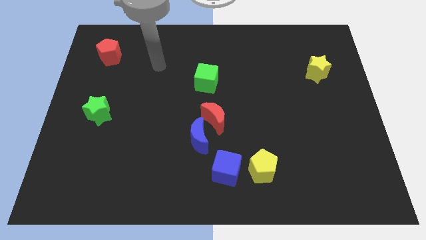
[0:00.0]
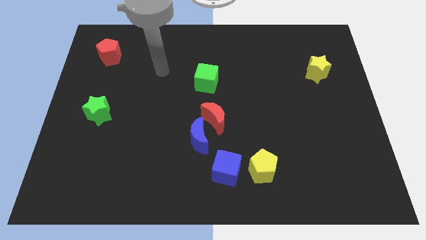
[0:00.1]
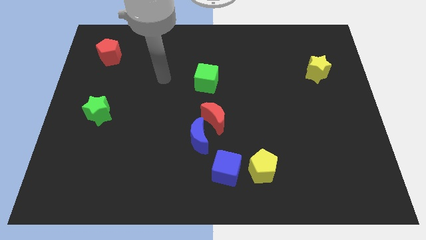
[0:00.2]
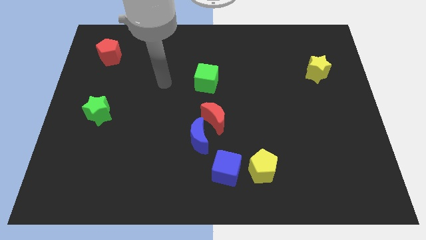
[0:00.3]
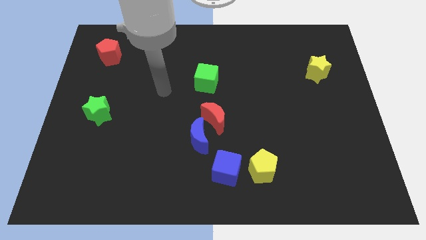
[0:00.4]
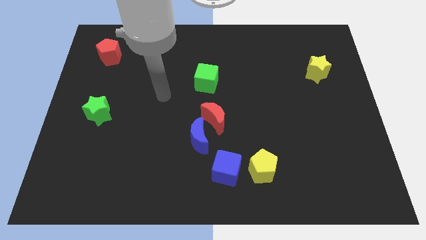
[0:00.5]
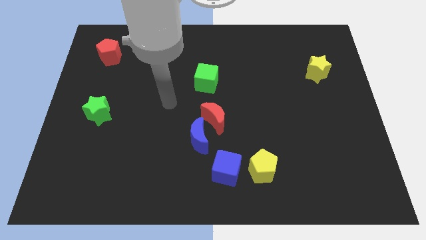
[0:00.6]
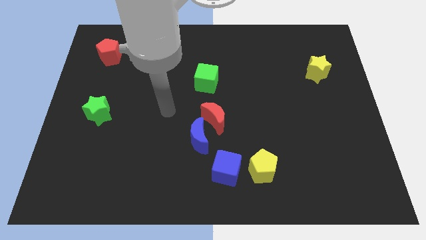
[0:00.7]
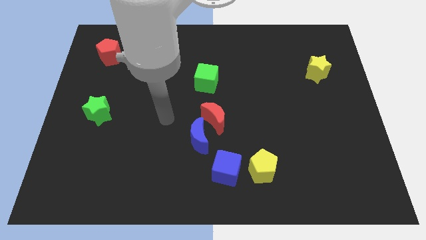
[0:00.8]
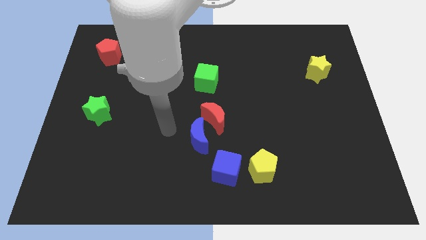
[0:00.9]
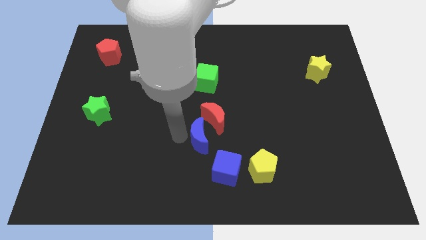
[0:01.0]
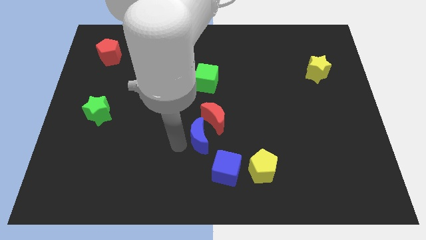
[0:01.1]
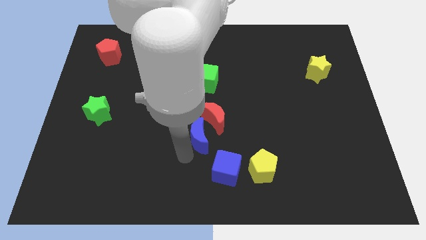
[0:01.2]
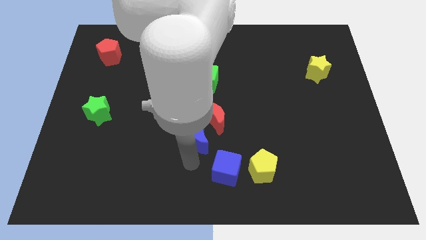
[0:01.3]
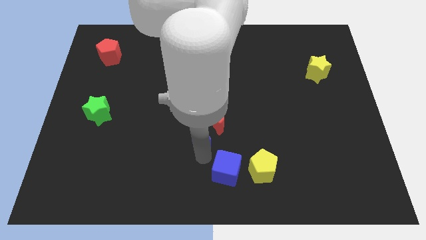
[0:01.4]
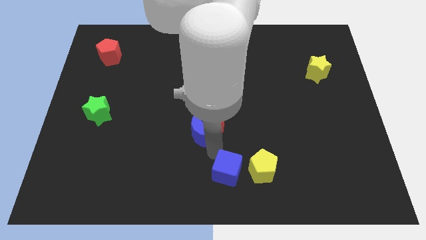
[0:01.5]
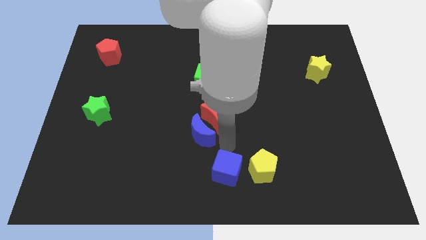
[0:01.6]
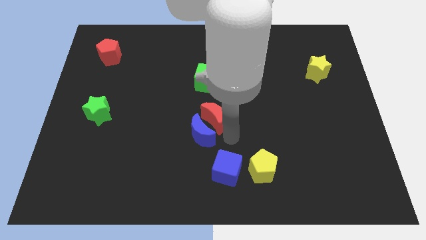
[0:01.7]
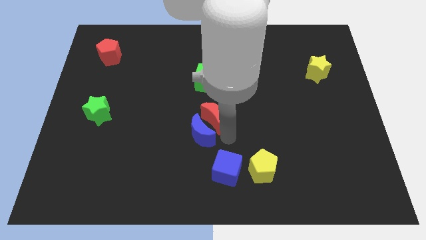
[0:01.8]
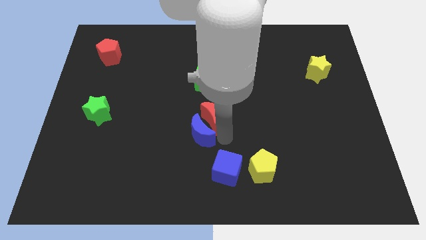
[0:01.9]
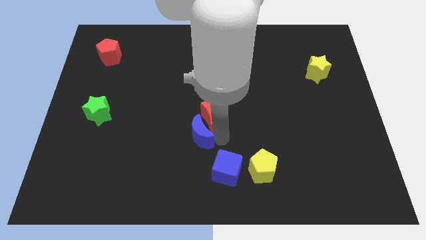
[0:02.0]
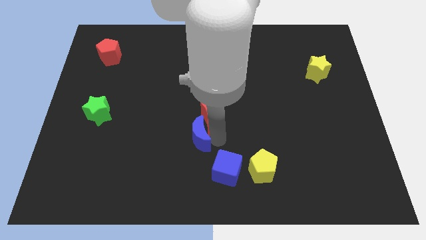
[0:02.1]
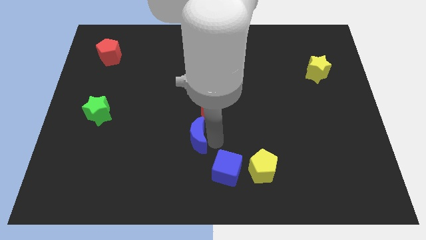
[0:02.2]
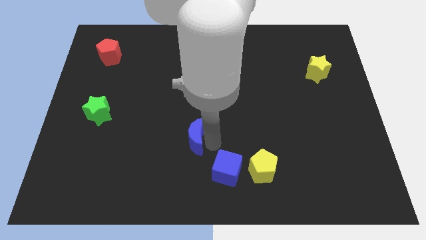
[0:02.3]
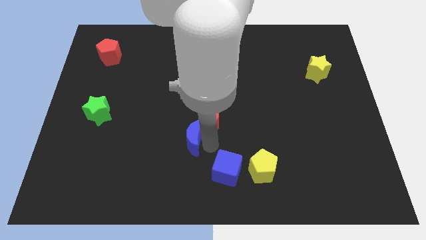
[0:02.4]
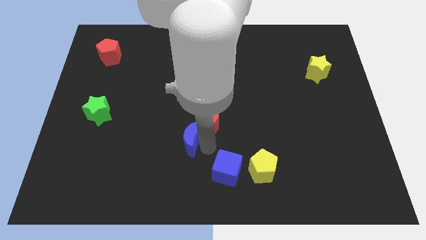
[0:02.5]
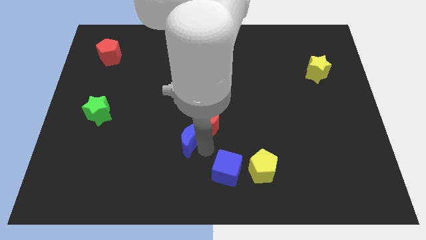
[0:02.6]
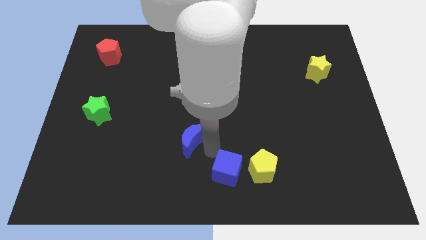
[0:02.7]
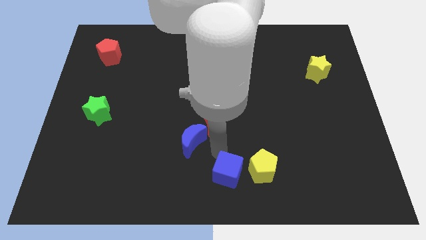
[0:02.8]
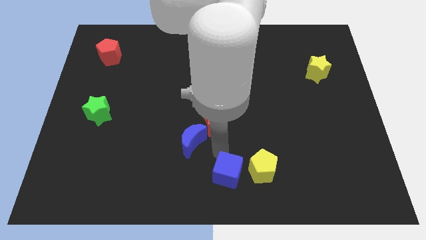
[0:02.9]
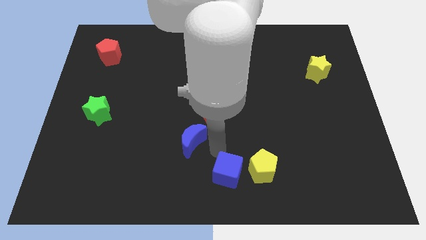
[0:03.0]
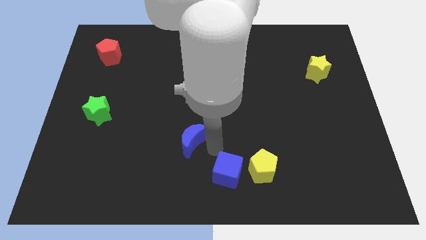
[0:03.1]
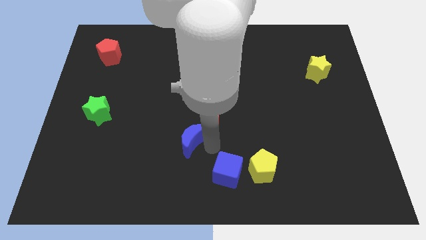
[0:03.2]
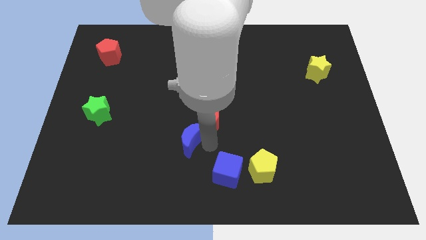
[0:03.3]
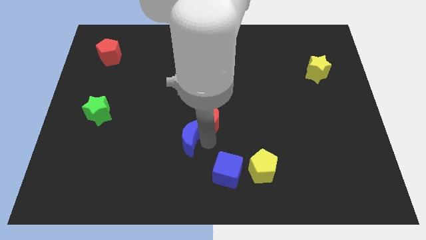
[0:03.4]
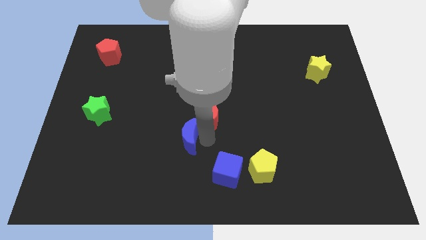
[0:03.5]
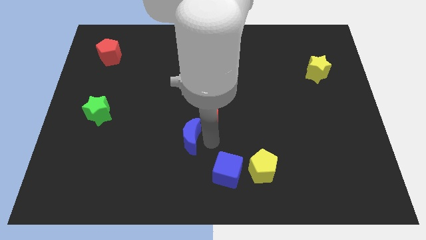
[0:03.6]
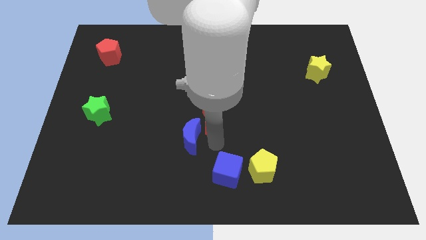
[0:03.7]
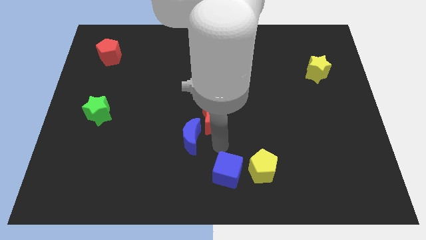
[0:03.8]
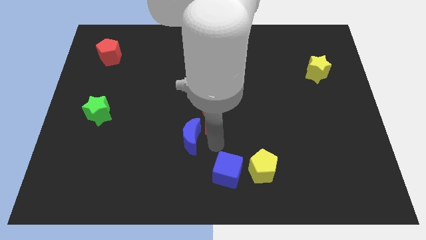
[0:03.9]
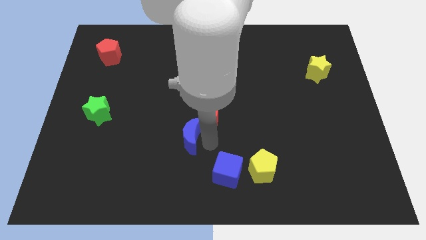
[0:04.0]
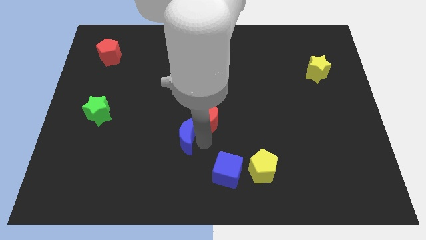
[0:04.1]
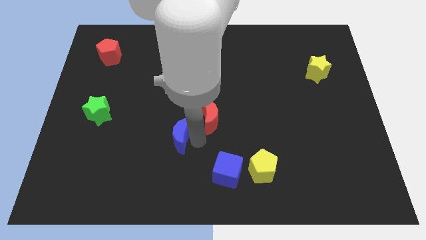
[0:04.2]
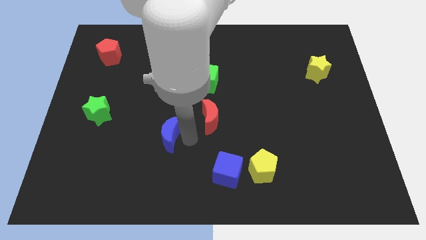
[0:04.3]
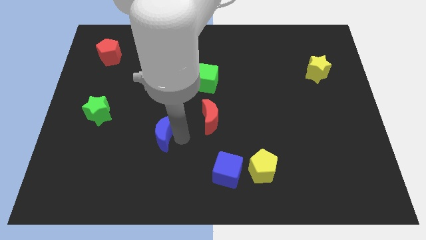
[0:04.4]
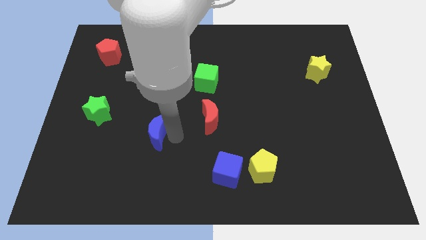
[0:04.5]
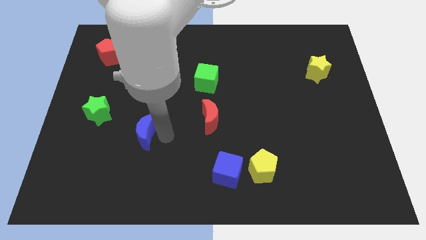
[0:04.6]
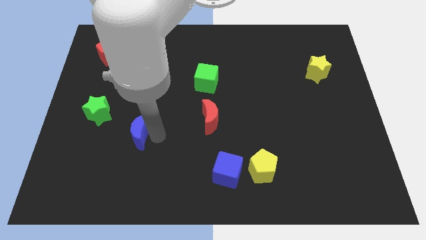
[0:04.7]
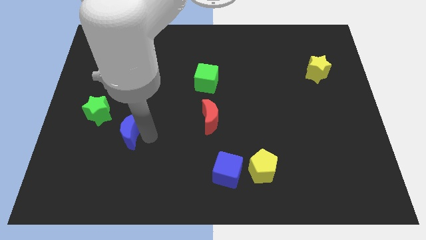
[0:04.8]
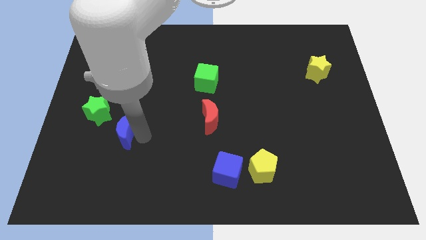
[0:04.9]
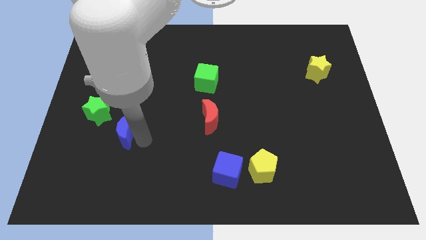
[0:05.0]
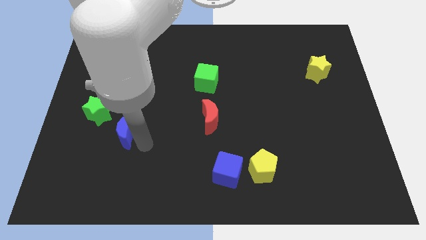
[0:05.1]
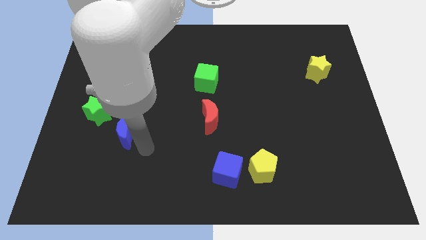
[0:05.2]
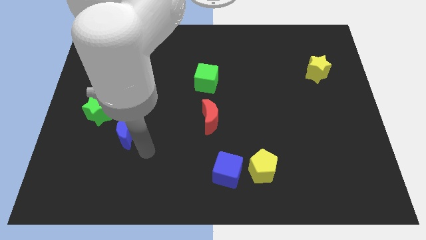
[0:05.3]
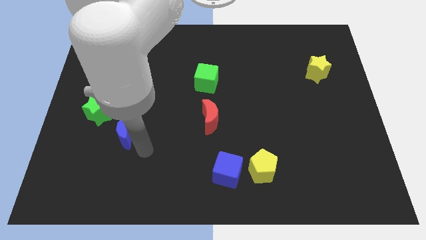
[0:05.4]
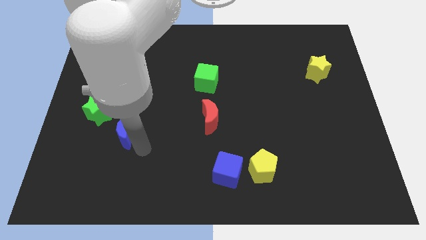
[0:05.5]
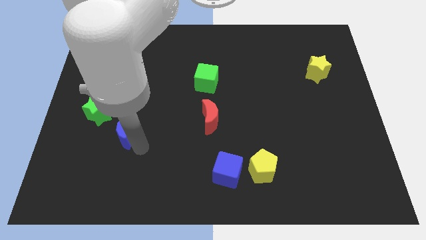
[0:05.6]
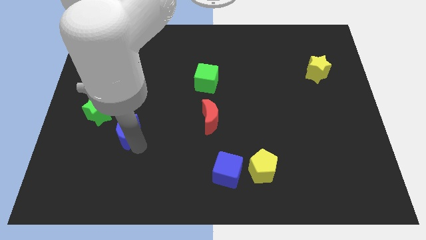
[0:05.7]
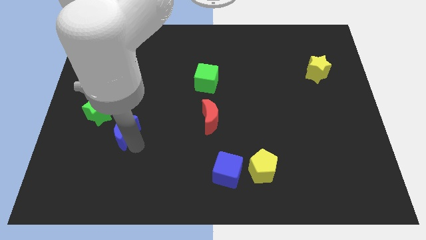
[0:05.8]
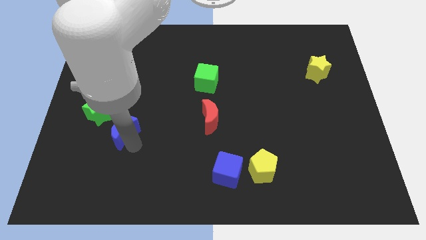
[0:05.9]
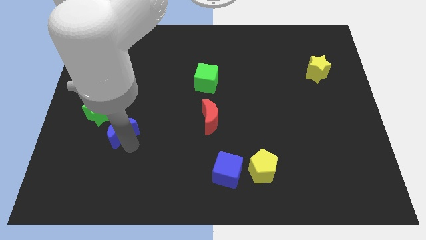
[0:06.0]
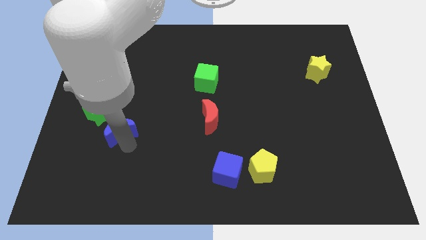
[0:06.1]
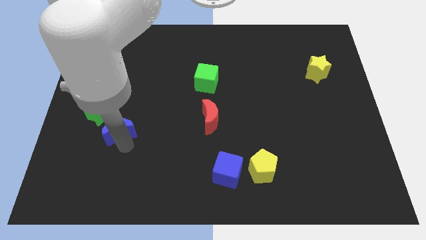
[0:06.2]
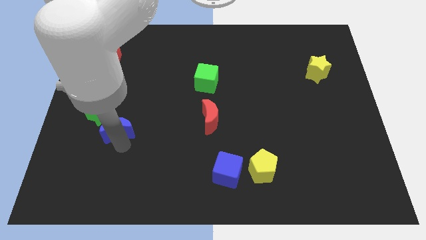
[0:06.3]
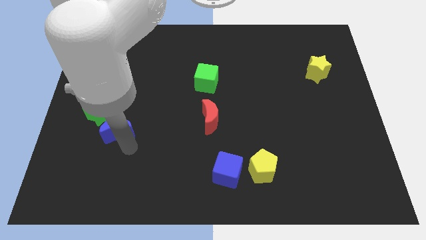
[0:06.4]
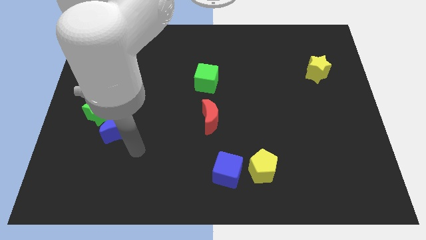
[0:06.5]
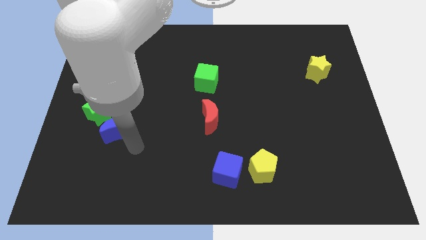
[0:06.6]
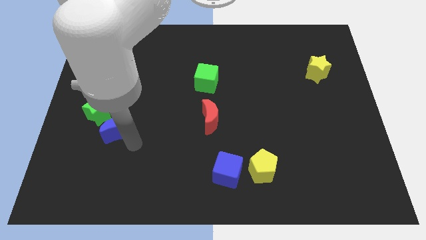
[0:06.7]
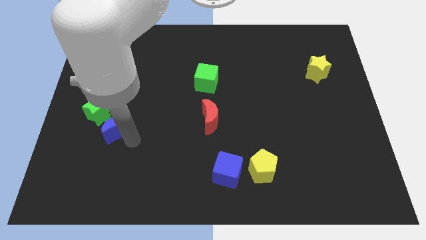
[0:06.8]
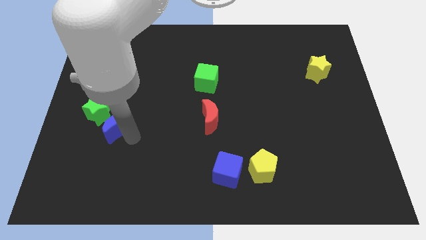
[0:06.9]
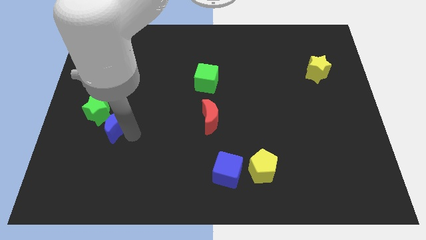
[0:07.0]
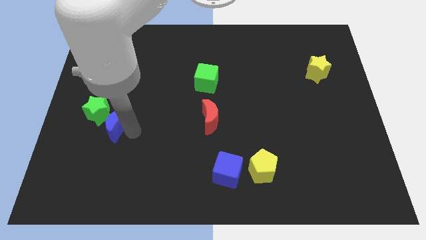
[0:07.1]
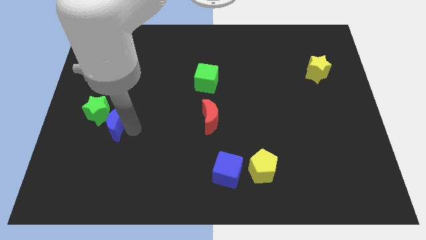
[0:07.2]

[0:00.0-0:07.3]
move the blue moon towards the green star
